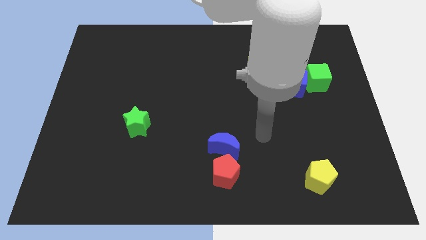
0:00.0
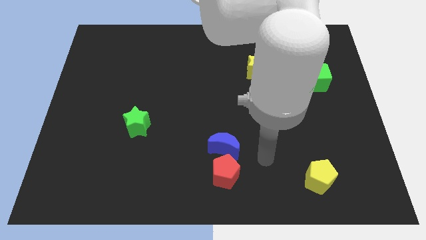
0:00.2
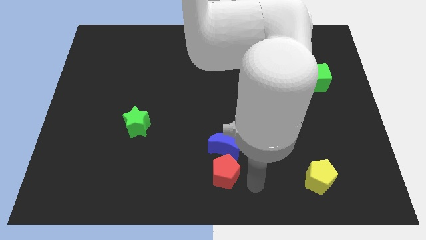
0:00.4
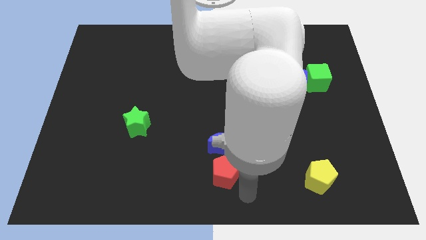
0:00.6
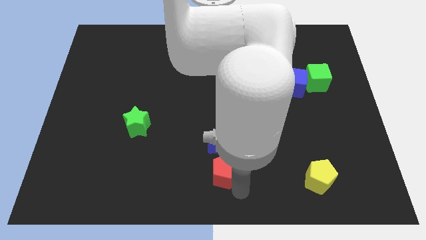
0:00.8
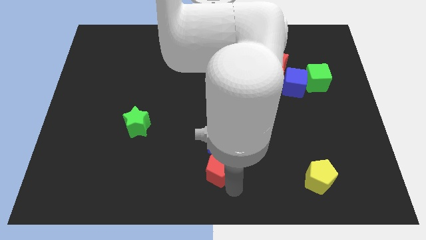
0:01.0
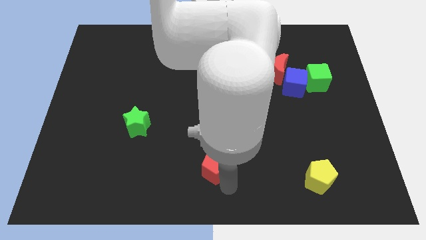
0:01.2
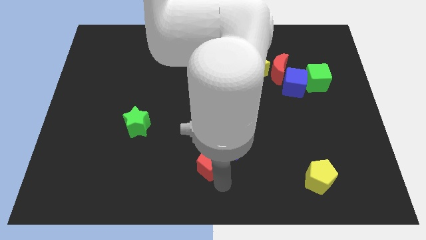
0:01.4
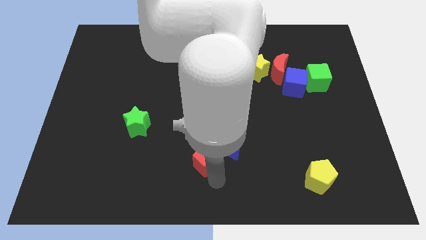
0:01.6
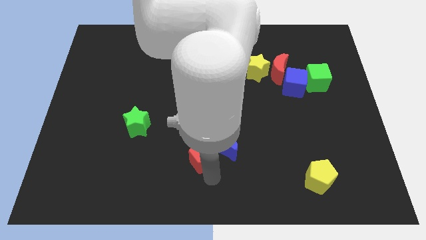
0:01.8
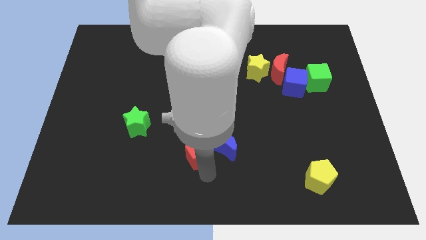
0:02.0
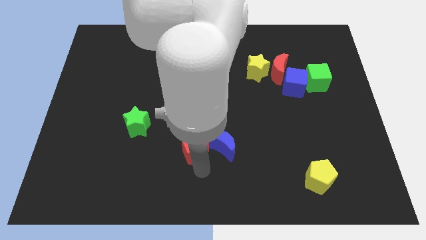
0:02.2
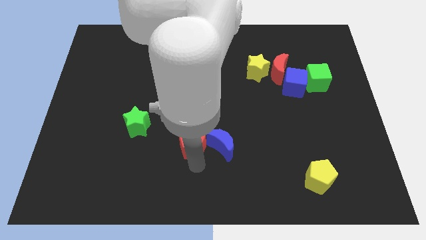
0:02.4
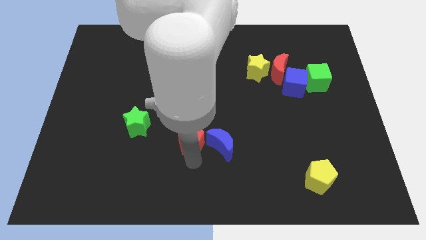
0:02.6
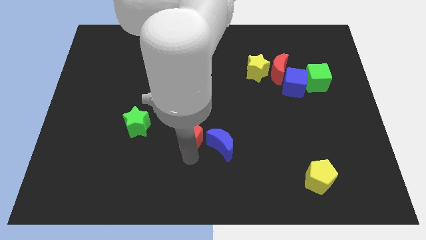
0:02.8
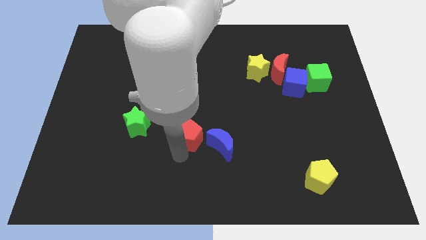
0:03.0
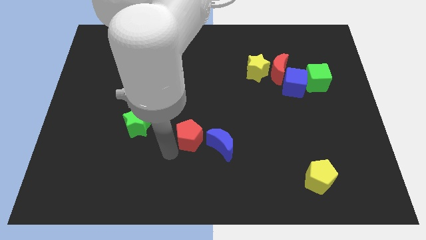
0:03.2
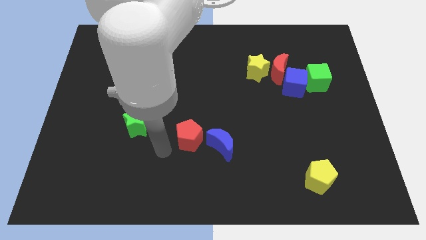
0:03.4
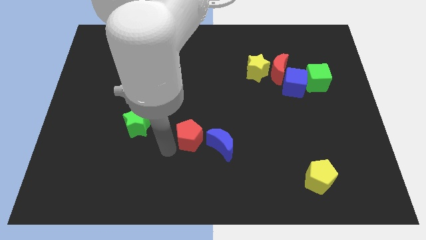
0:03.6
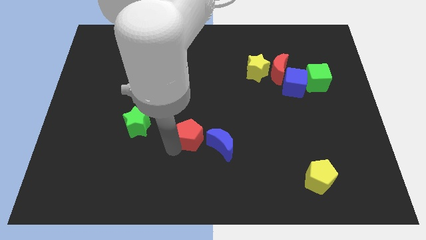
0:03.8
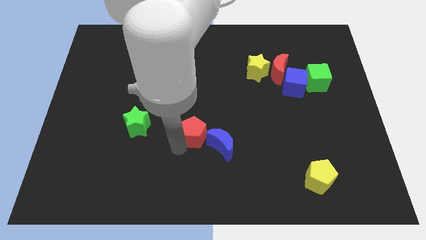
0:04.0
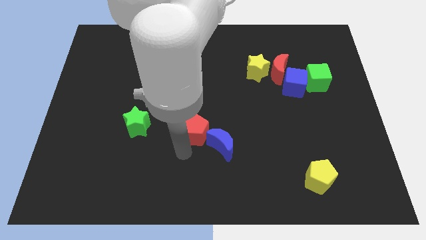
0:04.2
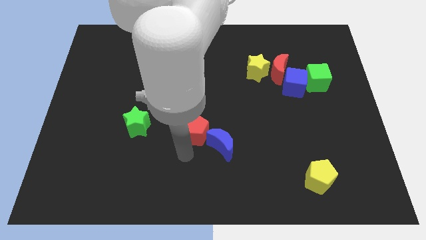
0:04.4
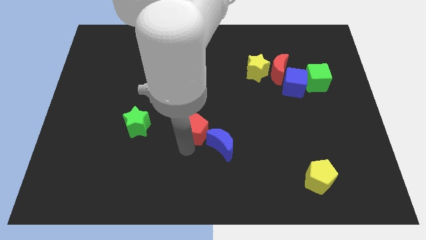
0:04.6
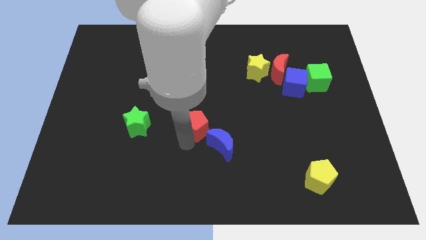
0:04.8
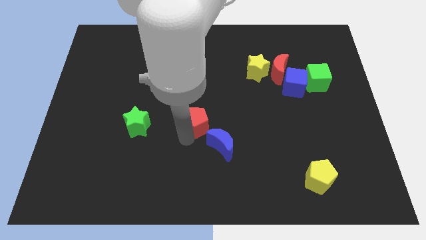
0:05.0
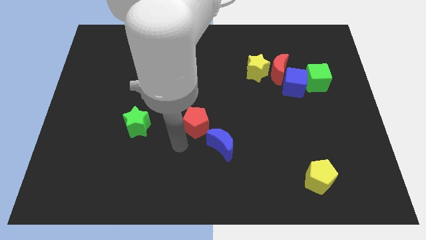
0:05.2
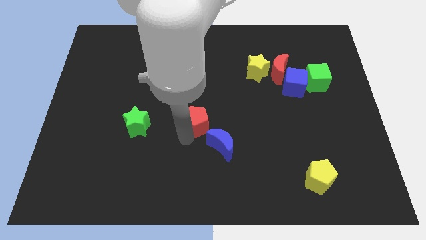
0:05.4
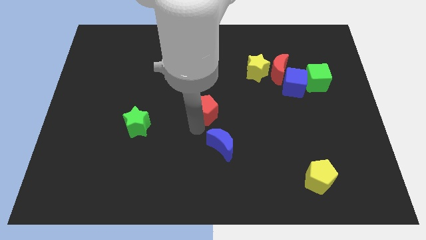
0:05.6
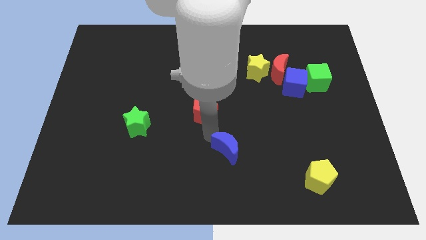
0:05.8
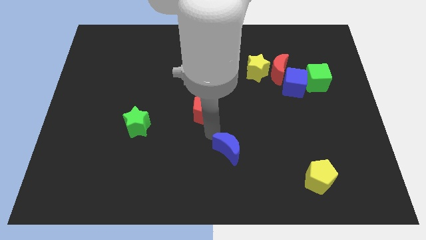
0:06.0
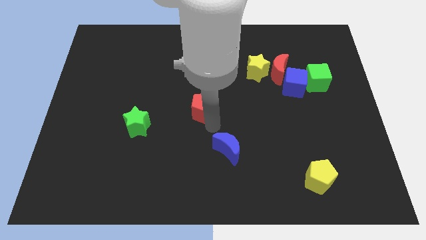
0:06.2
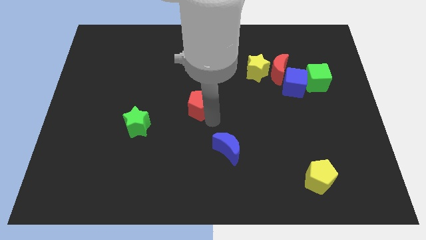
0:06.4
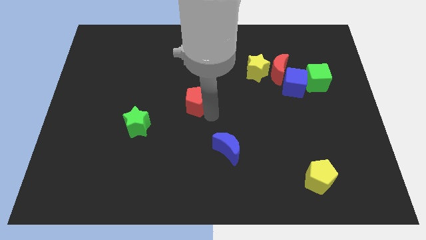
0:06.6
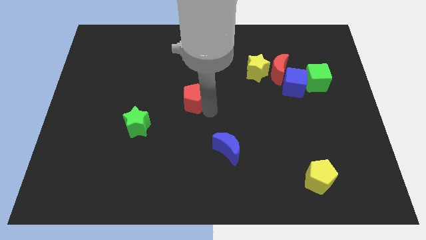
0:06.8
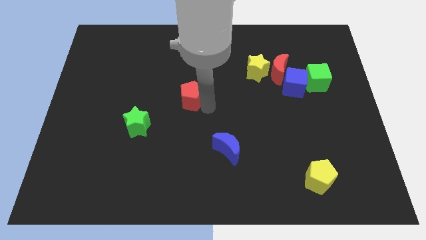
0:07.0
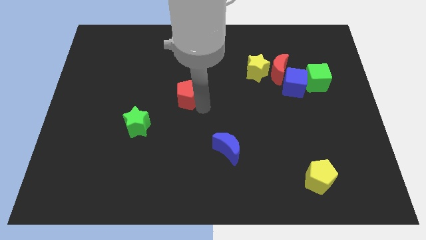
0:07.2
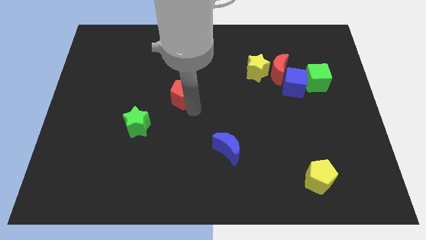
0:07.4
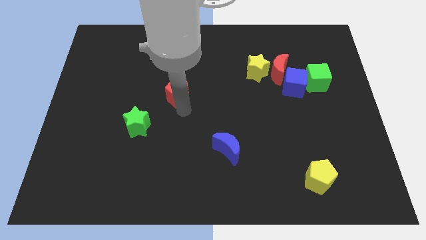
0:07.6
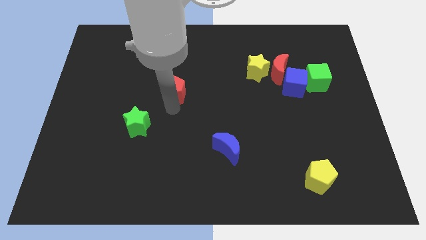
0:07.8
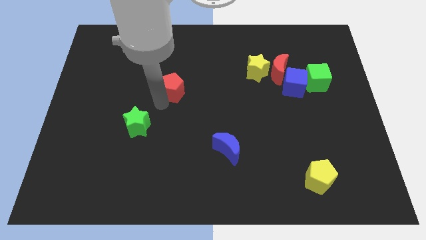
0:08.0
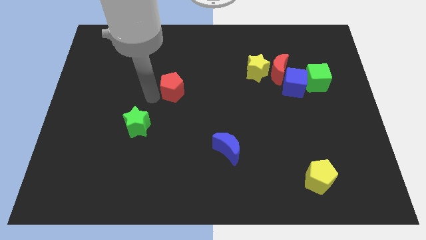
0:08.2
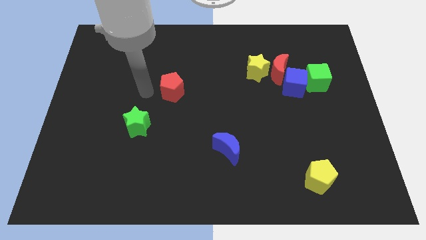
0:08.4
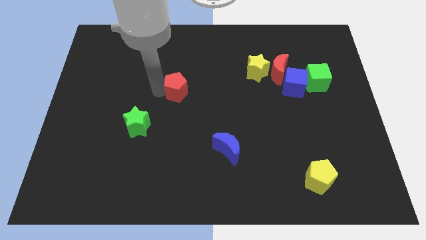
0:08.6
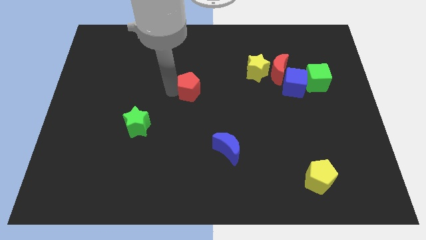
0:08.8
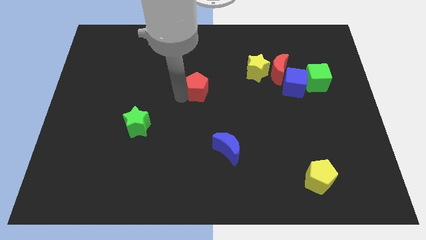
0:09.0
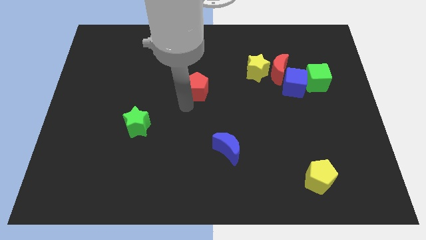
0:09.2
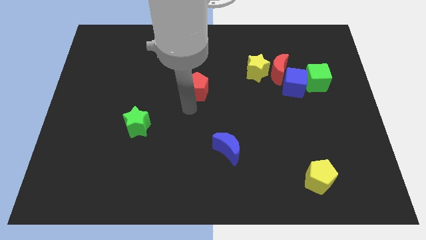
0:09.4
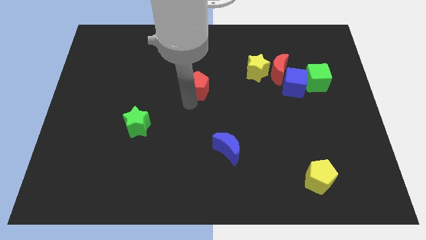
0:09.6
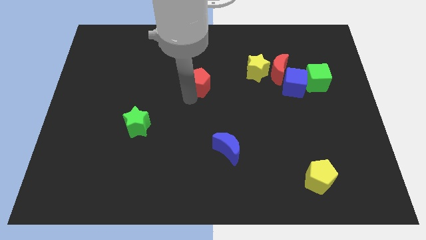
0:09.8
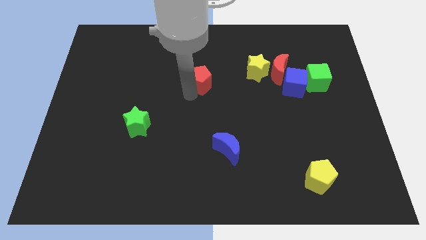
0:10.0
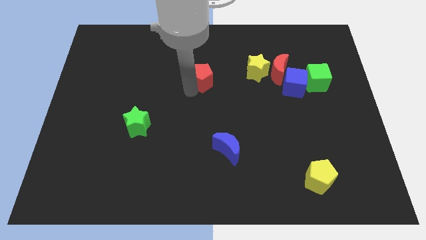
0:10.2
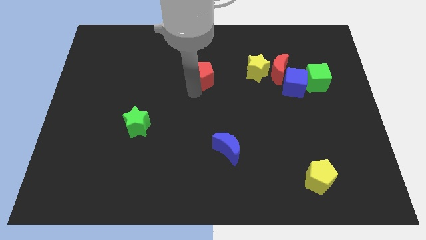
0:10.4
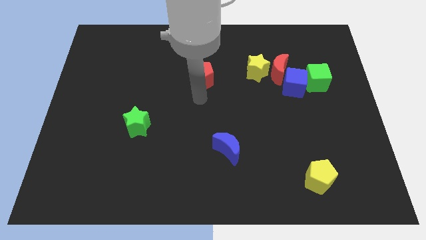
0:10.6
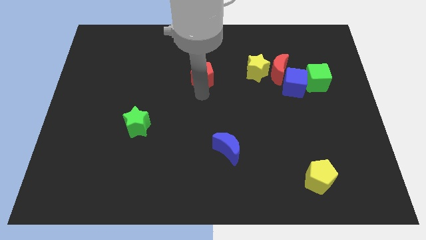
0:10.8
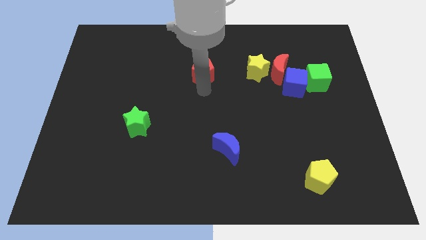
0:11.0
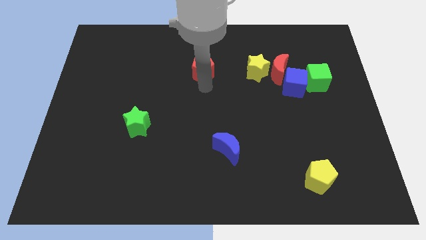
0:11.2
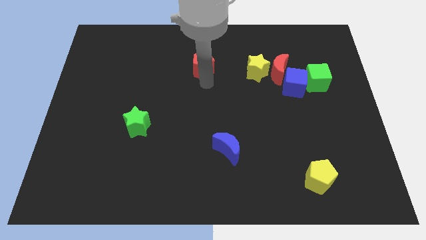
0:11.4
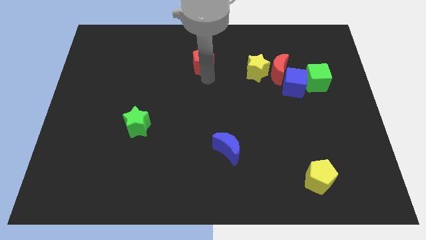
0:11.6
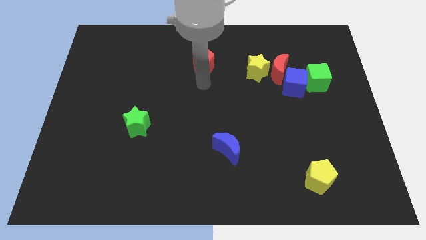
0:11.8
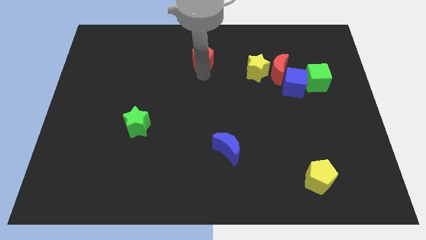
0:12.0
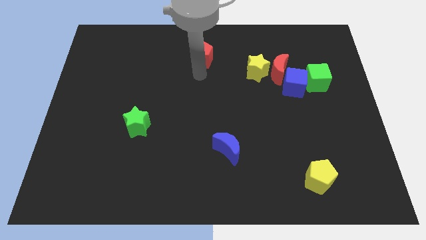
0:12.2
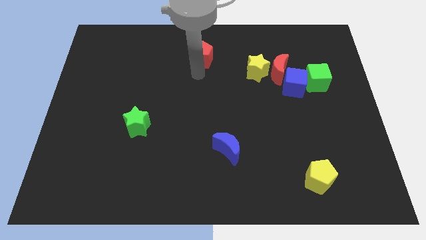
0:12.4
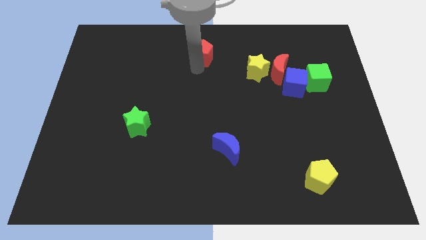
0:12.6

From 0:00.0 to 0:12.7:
move the red pentagon to the top side

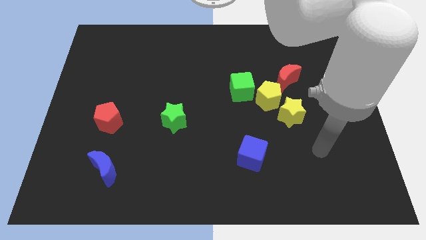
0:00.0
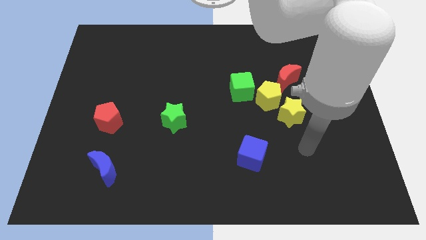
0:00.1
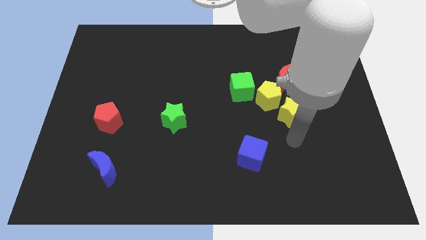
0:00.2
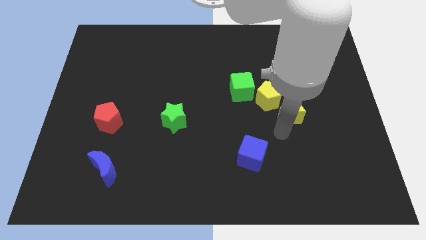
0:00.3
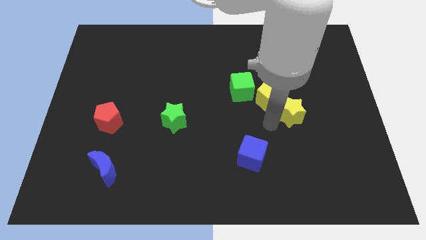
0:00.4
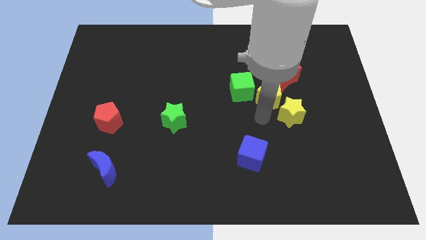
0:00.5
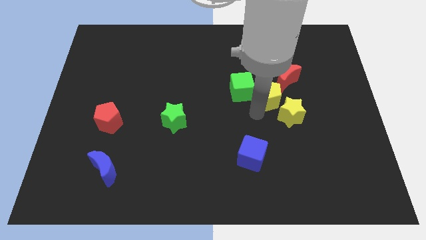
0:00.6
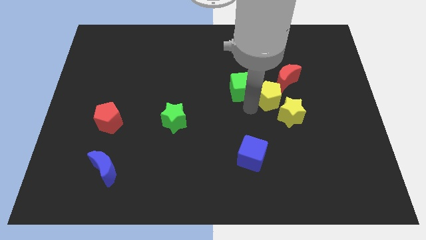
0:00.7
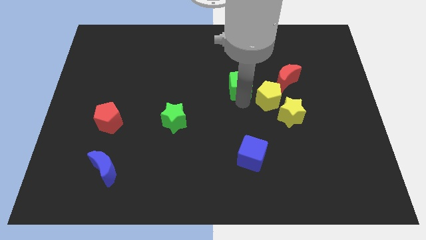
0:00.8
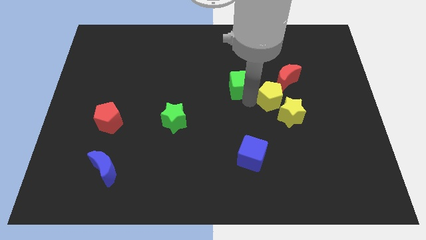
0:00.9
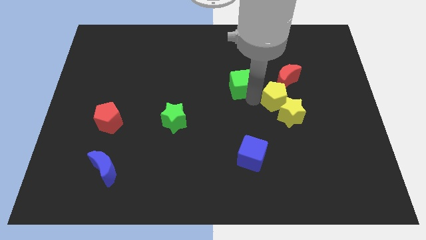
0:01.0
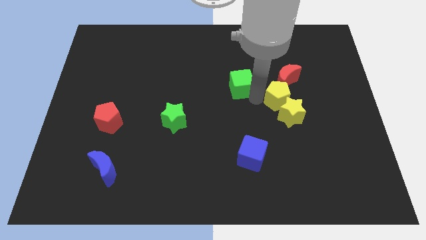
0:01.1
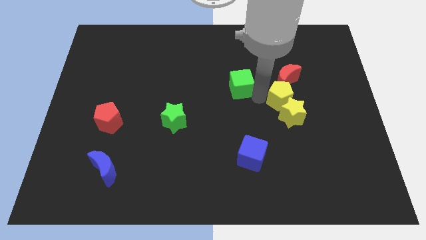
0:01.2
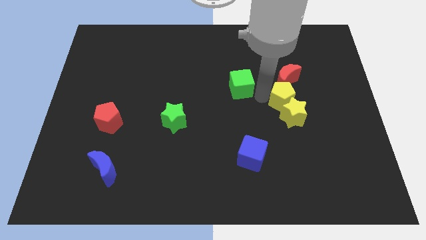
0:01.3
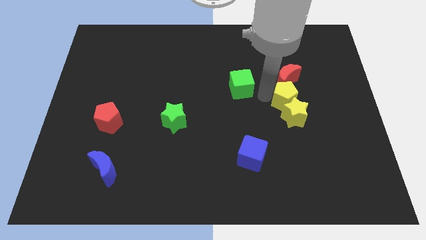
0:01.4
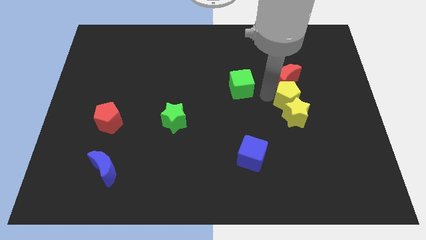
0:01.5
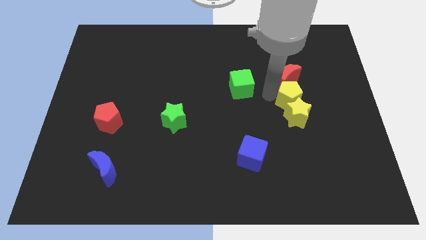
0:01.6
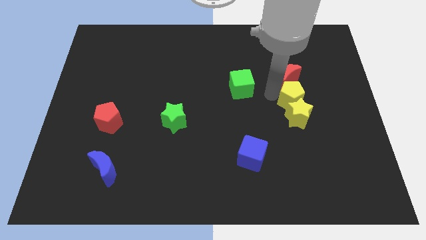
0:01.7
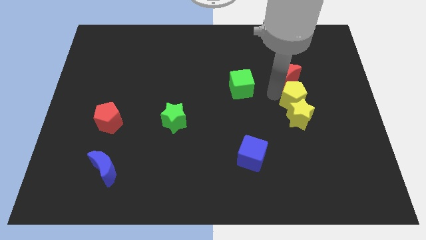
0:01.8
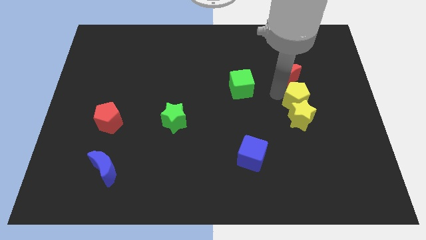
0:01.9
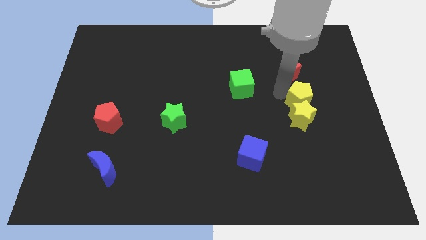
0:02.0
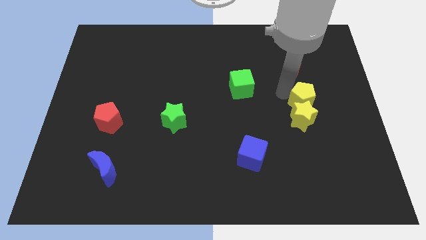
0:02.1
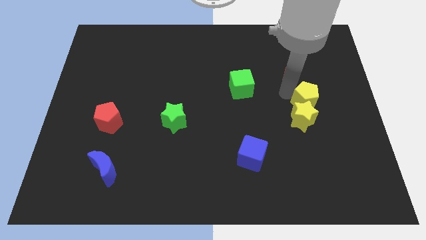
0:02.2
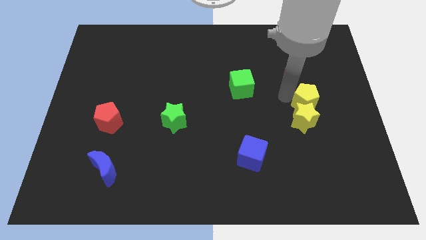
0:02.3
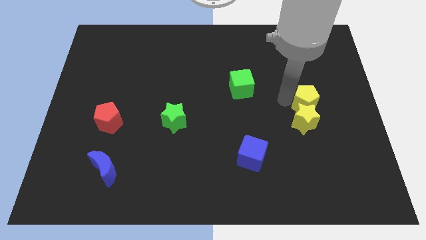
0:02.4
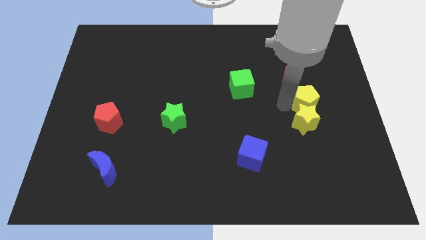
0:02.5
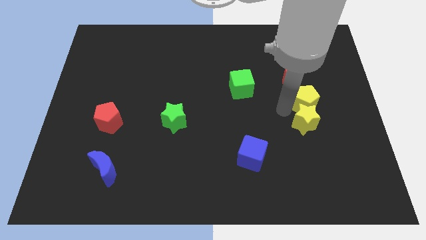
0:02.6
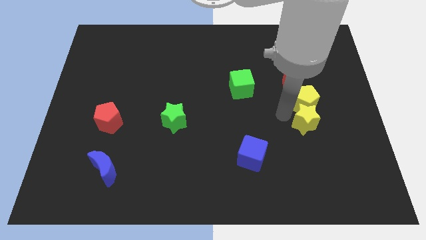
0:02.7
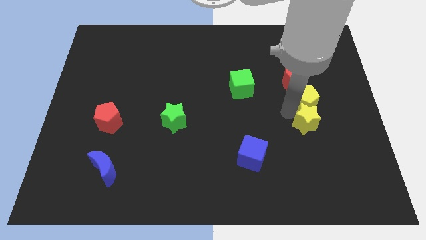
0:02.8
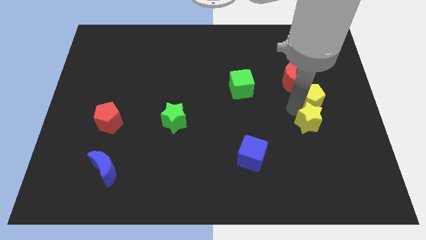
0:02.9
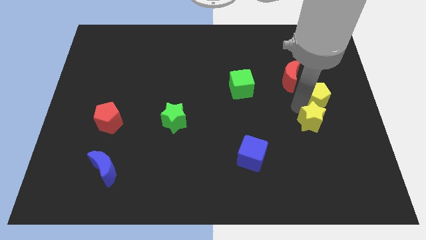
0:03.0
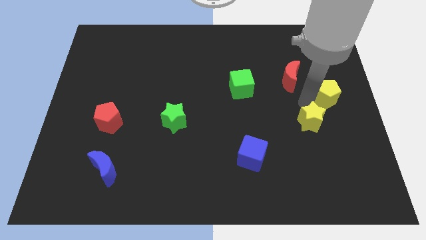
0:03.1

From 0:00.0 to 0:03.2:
move the yellow pentagon to the center right
